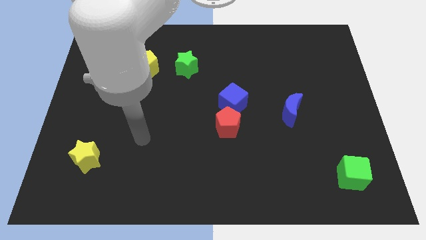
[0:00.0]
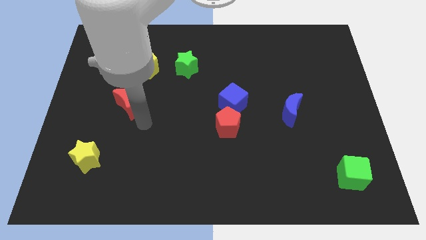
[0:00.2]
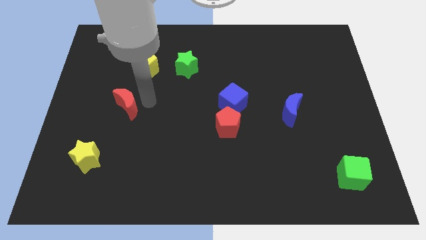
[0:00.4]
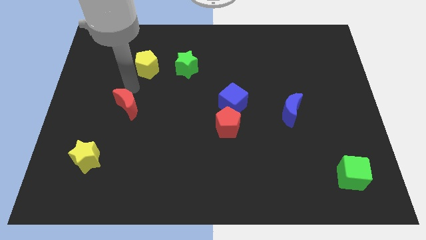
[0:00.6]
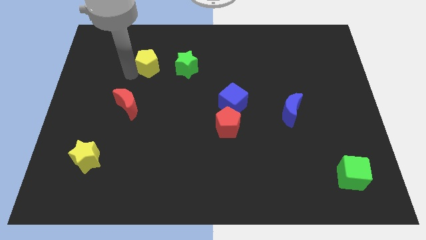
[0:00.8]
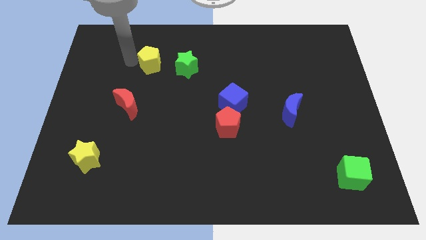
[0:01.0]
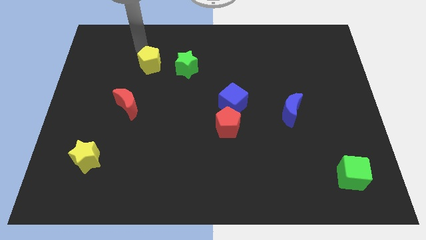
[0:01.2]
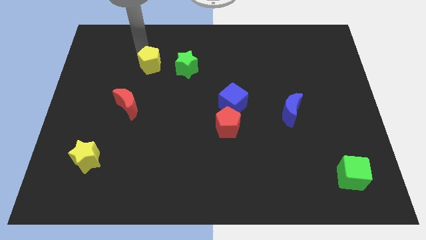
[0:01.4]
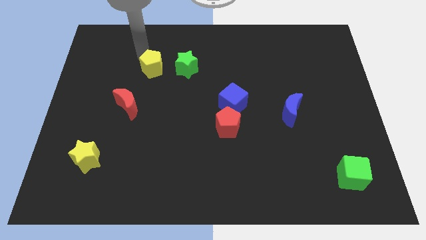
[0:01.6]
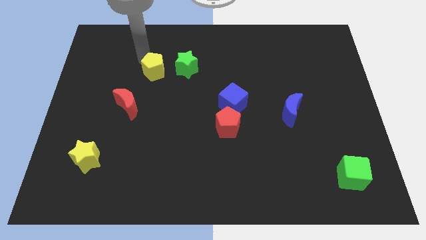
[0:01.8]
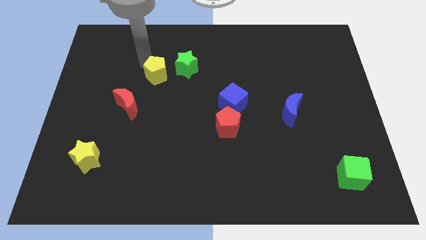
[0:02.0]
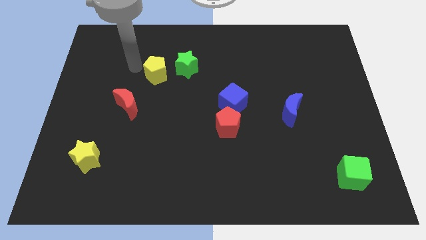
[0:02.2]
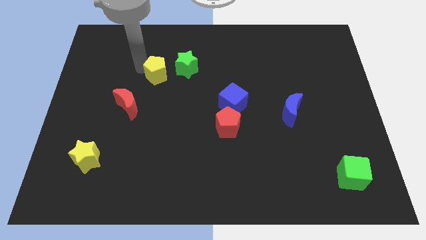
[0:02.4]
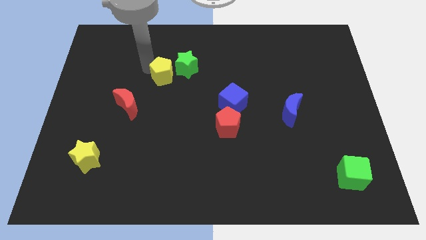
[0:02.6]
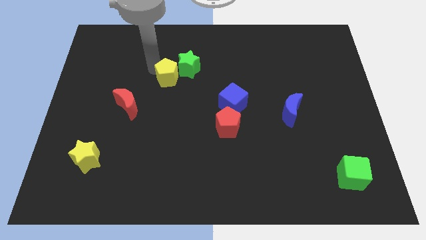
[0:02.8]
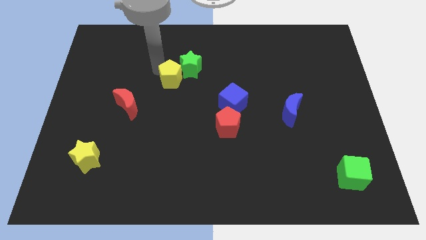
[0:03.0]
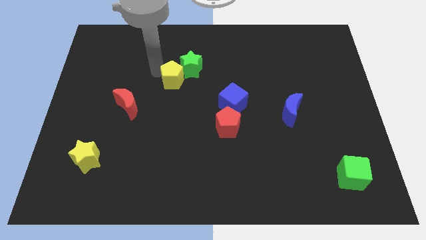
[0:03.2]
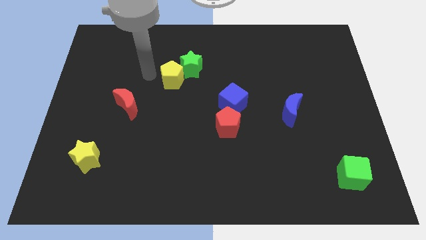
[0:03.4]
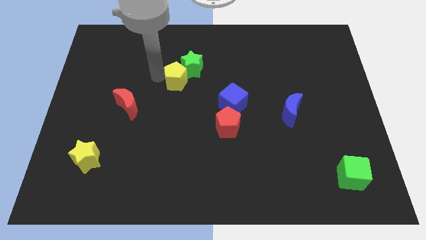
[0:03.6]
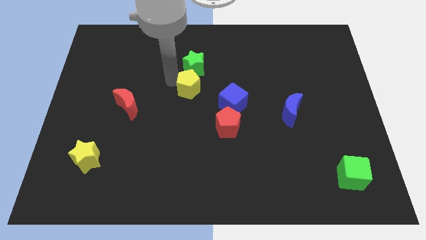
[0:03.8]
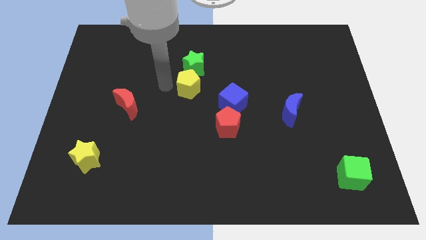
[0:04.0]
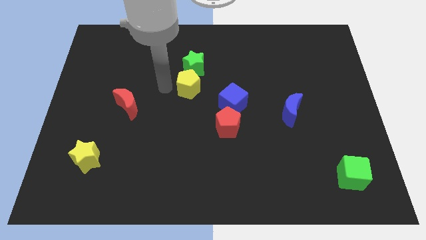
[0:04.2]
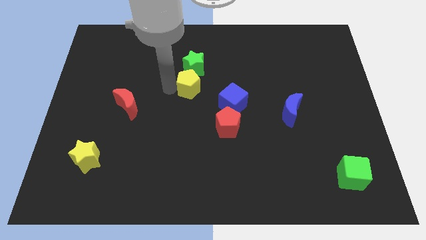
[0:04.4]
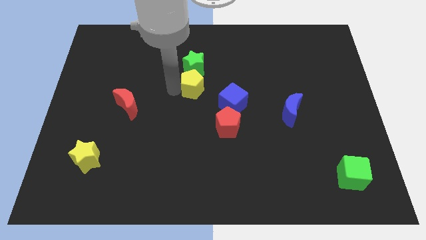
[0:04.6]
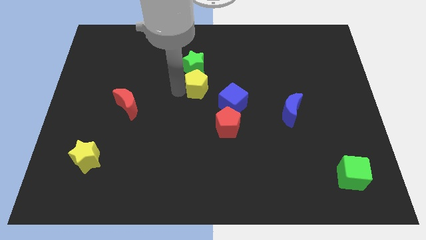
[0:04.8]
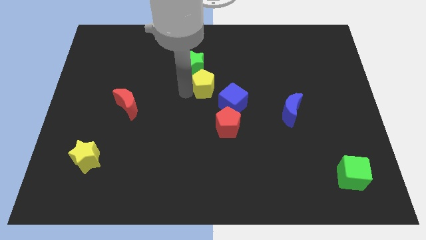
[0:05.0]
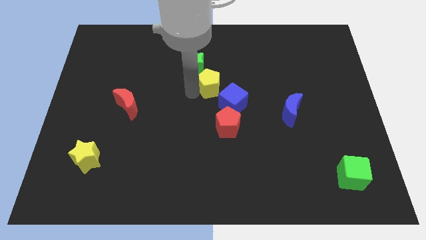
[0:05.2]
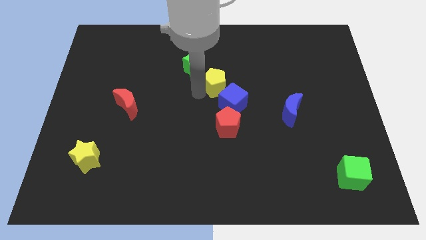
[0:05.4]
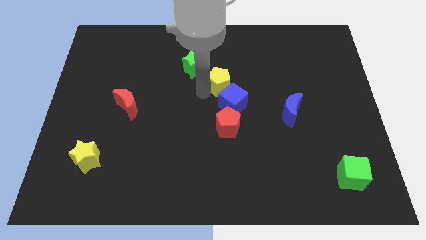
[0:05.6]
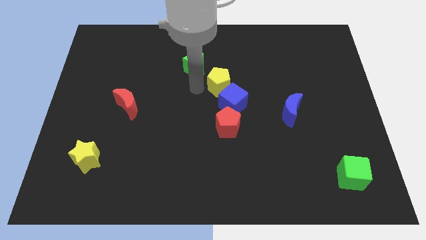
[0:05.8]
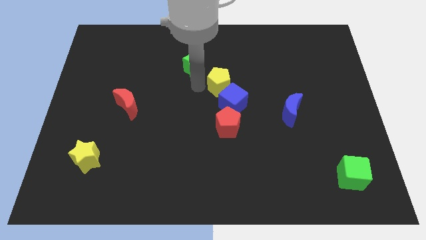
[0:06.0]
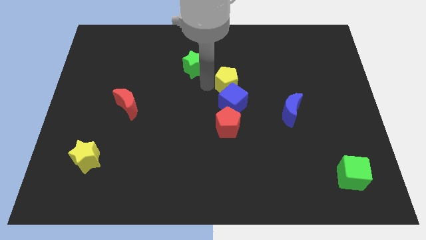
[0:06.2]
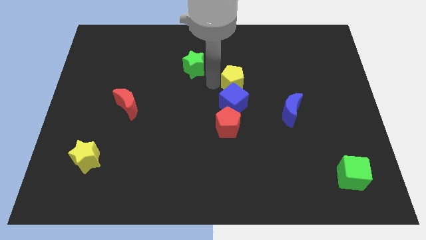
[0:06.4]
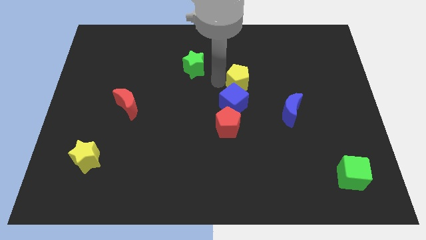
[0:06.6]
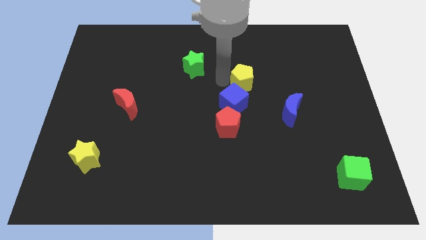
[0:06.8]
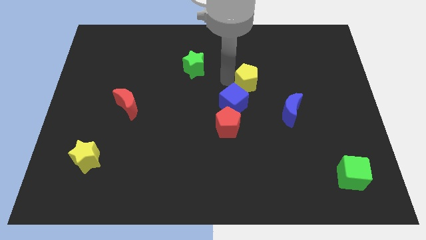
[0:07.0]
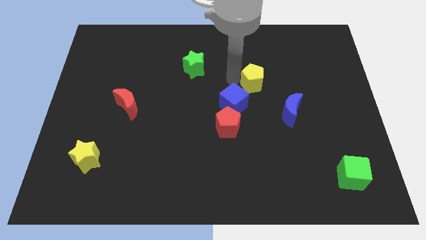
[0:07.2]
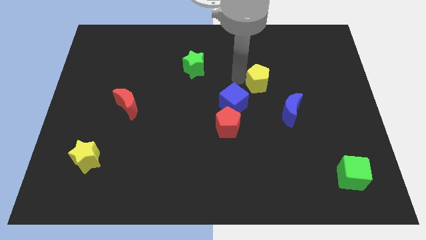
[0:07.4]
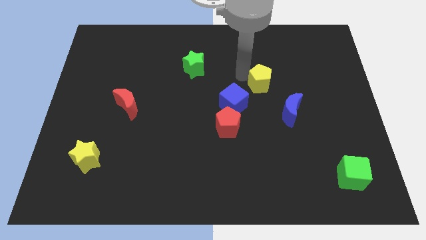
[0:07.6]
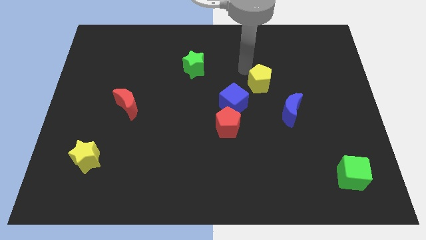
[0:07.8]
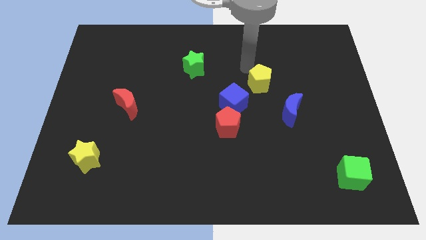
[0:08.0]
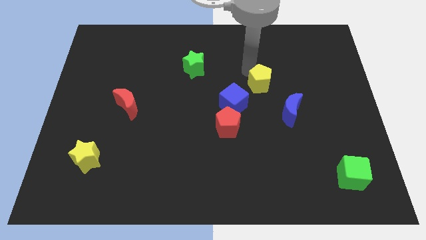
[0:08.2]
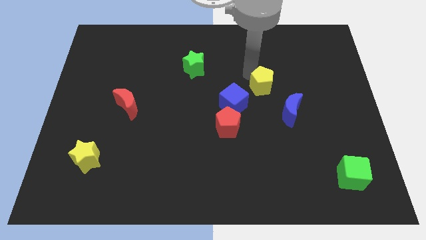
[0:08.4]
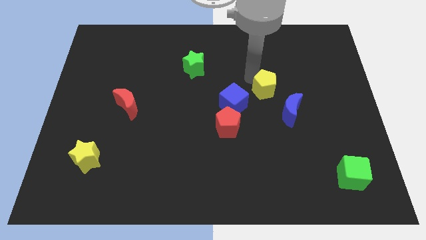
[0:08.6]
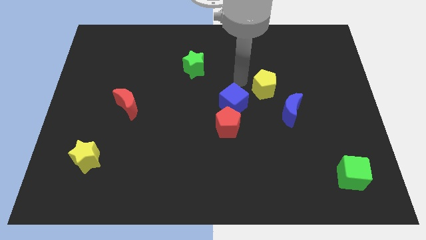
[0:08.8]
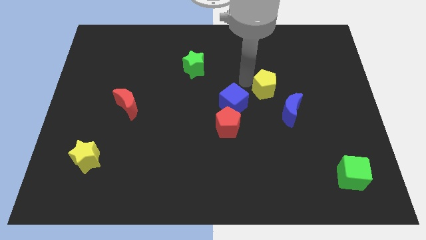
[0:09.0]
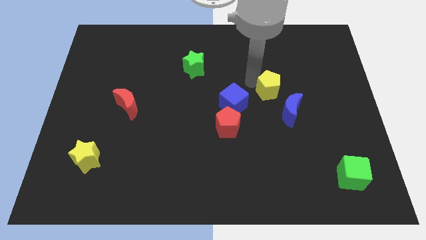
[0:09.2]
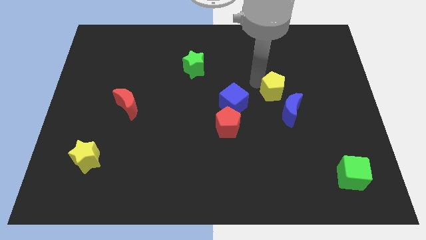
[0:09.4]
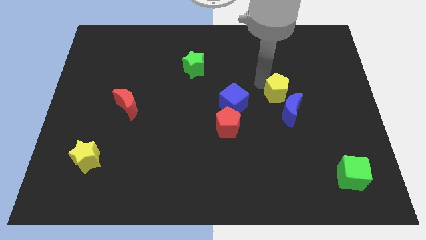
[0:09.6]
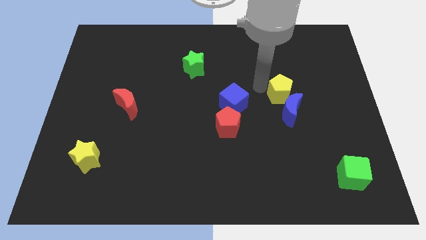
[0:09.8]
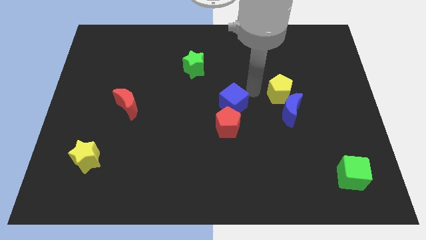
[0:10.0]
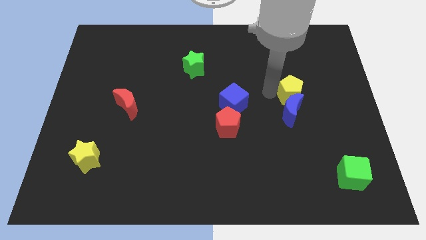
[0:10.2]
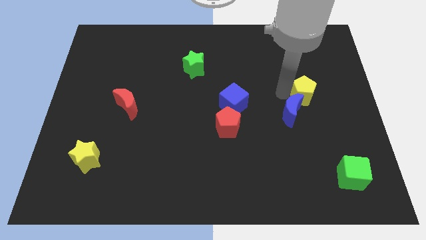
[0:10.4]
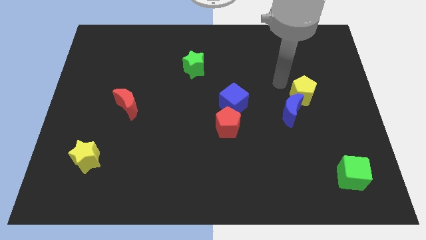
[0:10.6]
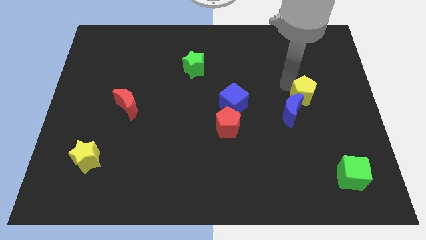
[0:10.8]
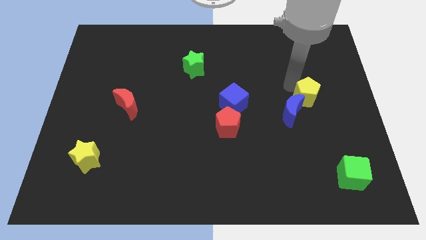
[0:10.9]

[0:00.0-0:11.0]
put the yellow pentagon just right of the blue moon
